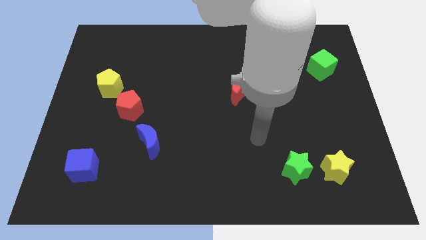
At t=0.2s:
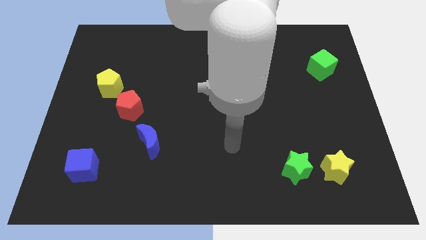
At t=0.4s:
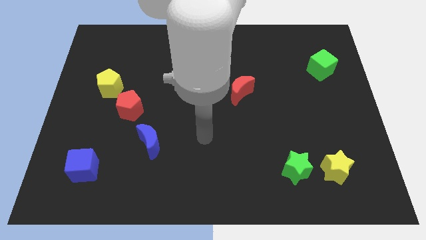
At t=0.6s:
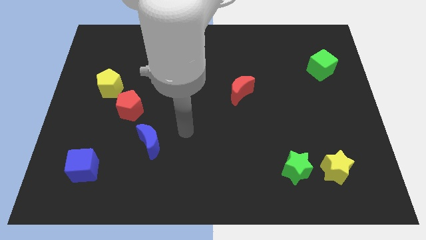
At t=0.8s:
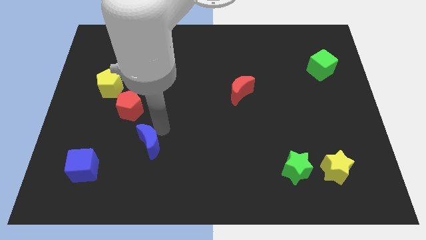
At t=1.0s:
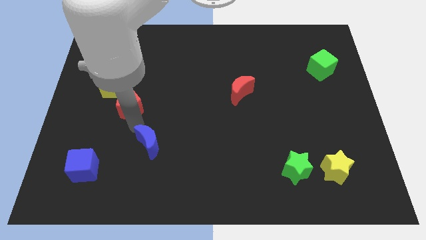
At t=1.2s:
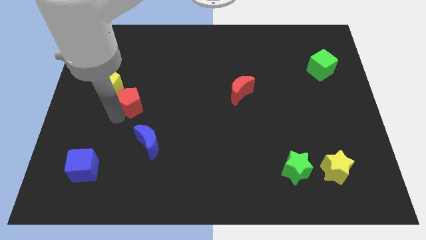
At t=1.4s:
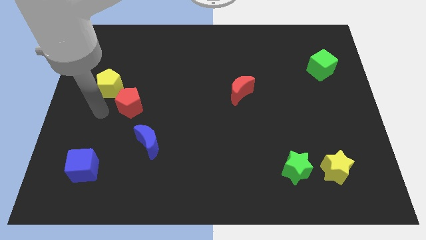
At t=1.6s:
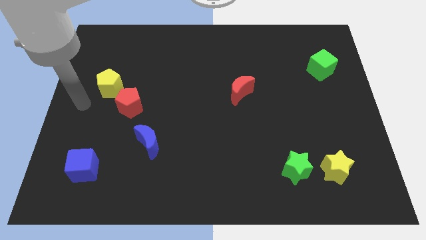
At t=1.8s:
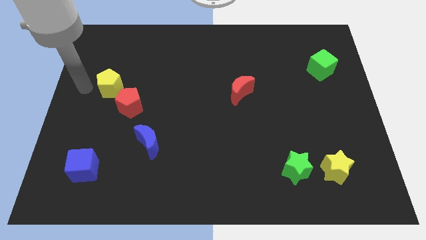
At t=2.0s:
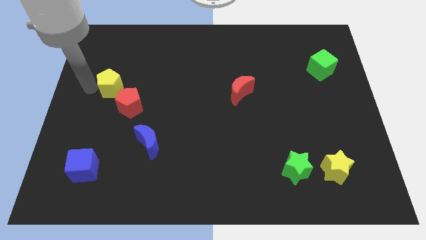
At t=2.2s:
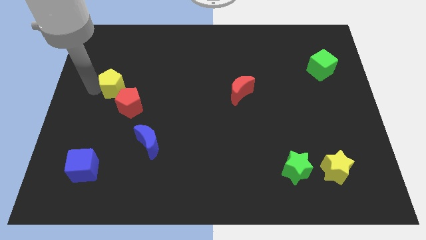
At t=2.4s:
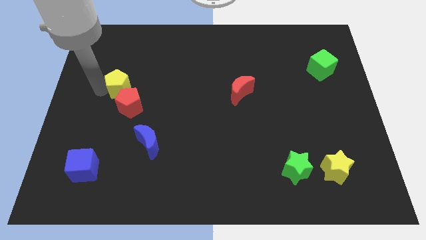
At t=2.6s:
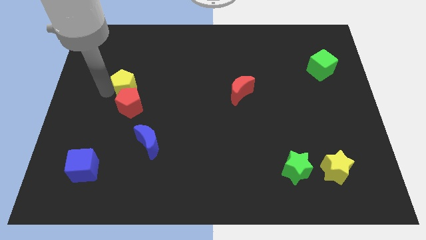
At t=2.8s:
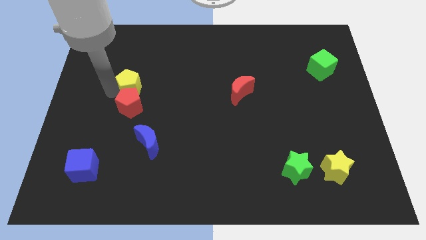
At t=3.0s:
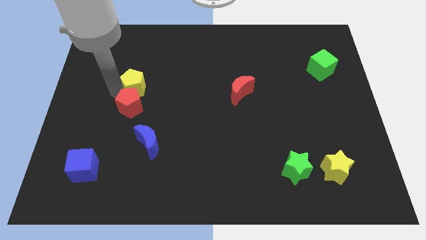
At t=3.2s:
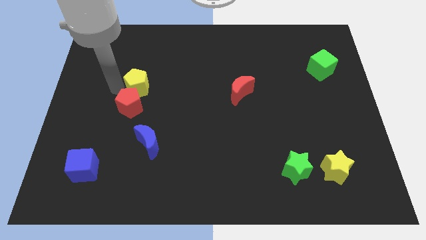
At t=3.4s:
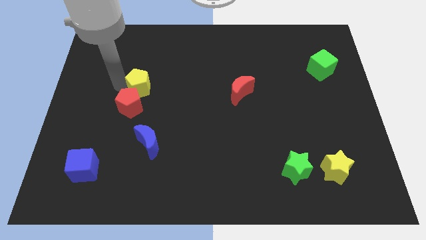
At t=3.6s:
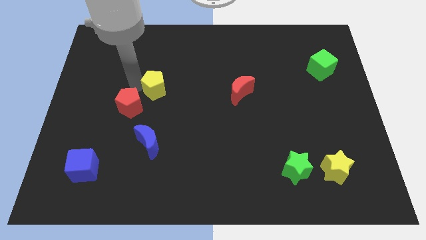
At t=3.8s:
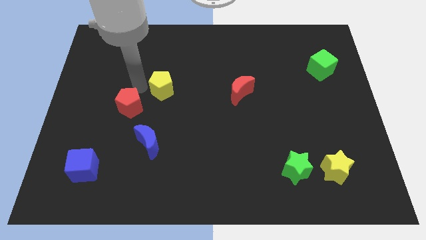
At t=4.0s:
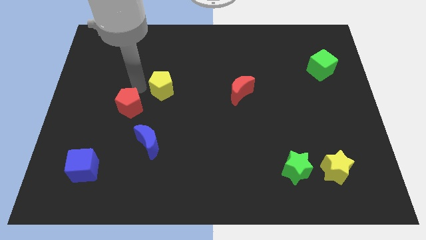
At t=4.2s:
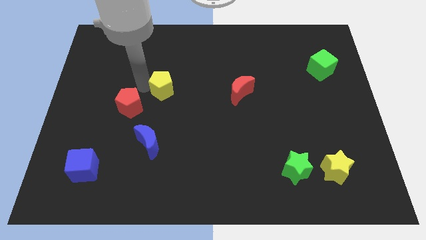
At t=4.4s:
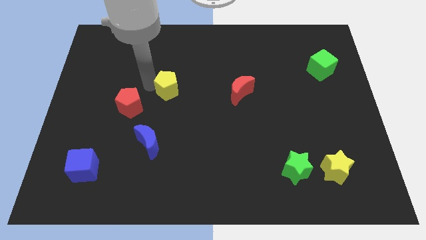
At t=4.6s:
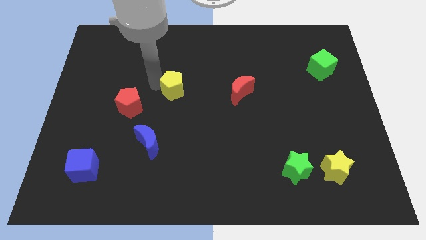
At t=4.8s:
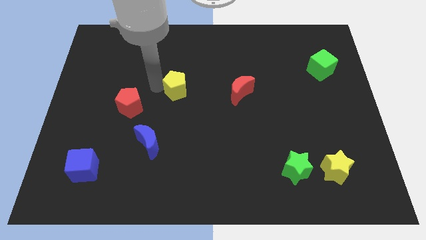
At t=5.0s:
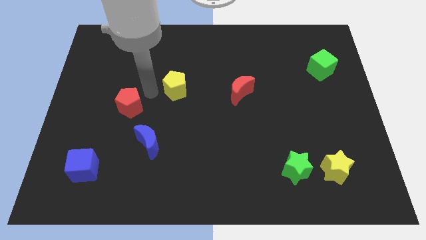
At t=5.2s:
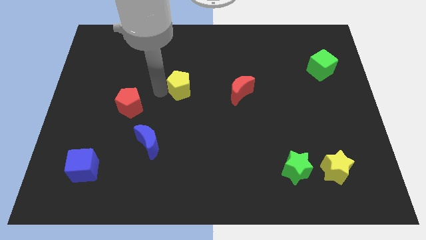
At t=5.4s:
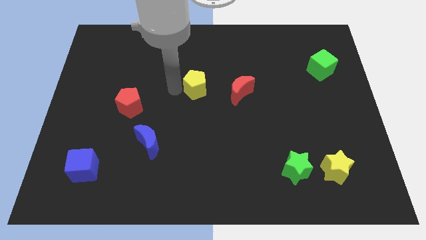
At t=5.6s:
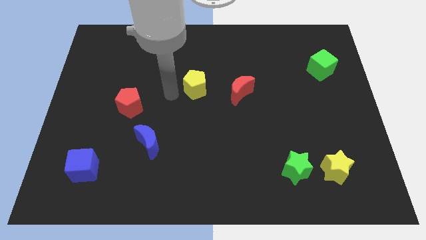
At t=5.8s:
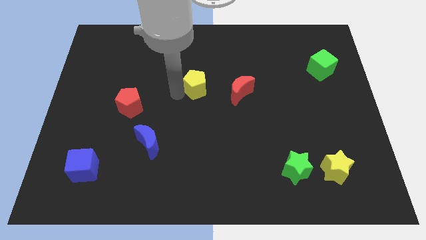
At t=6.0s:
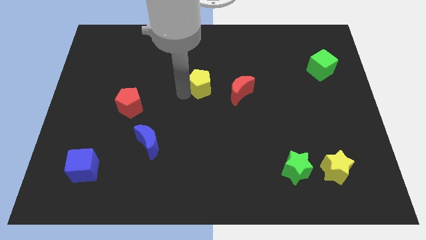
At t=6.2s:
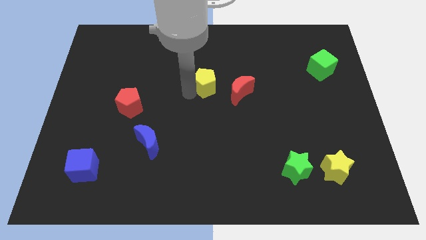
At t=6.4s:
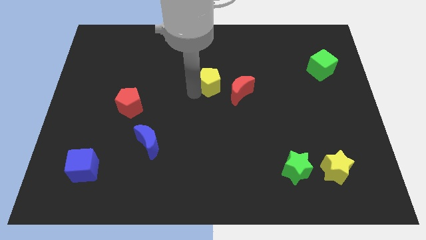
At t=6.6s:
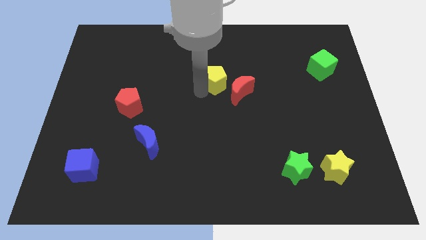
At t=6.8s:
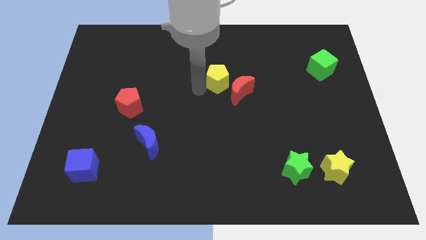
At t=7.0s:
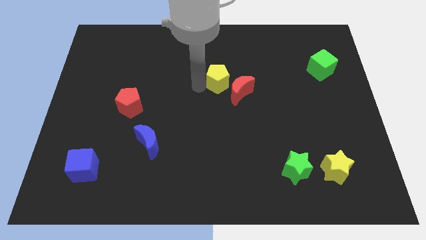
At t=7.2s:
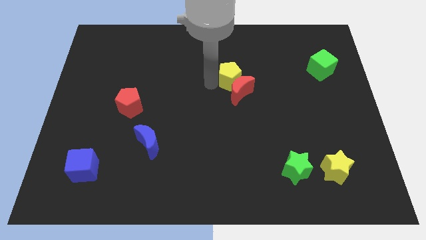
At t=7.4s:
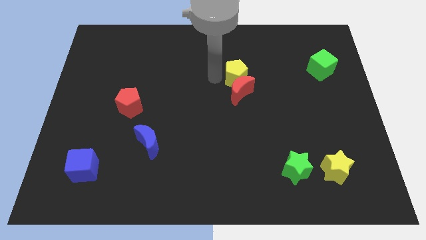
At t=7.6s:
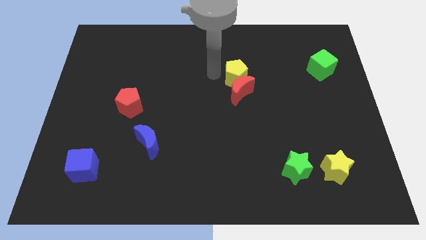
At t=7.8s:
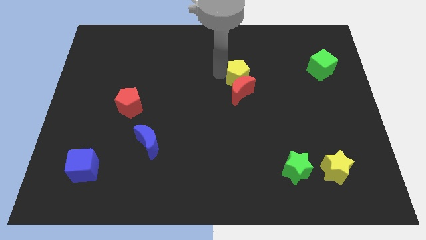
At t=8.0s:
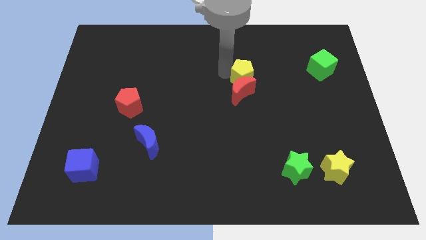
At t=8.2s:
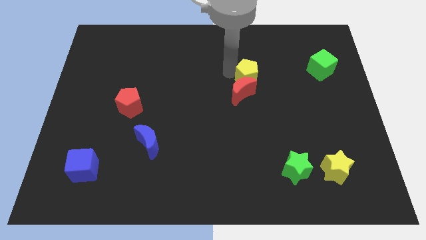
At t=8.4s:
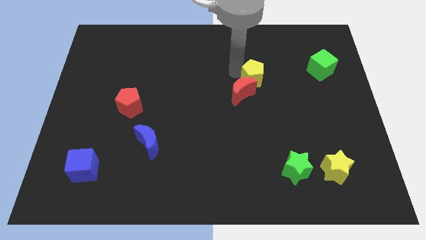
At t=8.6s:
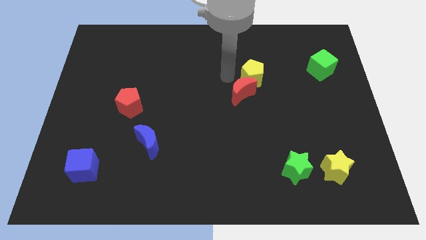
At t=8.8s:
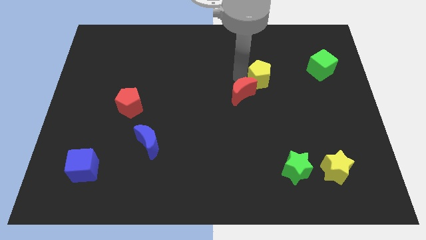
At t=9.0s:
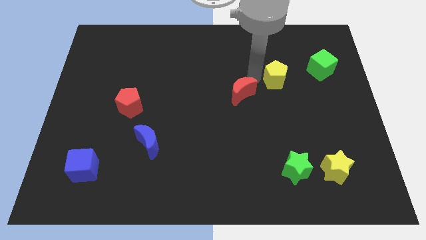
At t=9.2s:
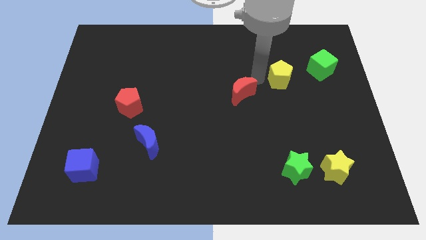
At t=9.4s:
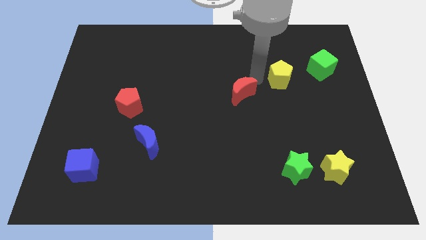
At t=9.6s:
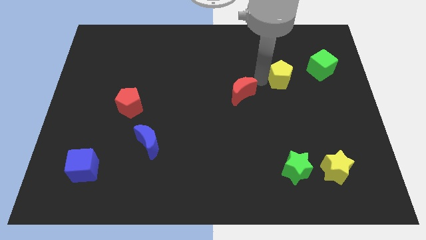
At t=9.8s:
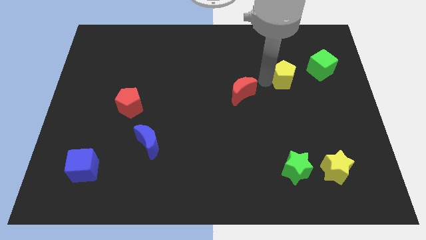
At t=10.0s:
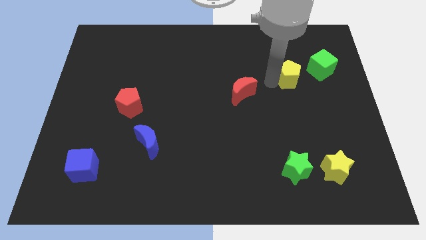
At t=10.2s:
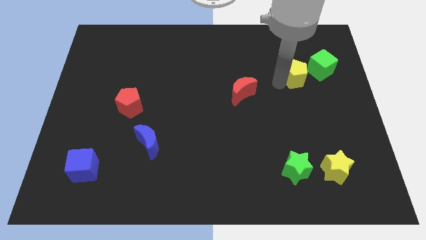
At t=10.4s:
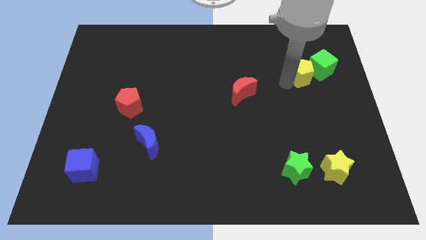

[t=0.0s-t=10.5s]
push the yellow pentagon next to the green cube

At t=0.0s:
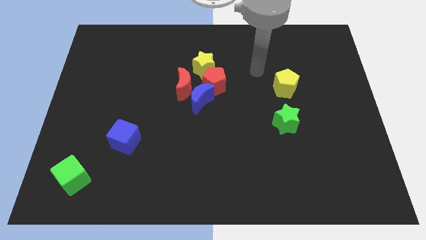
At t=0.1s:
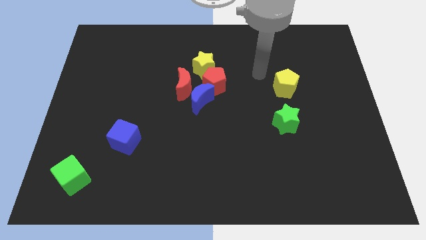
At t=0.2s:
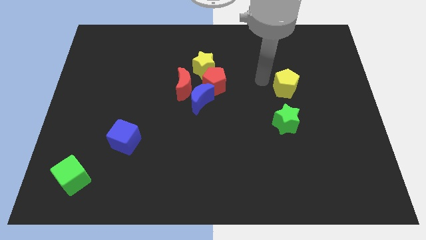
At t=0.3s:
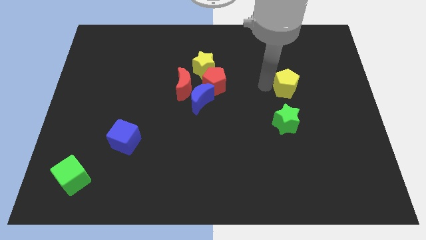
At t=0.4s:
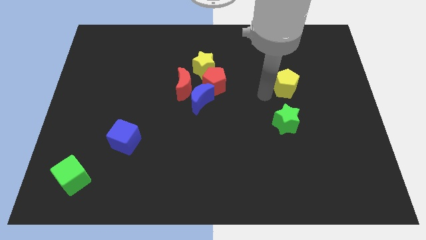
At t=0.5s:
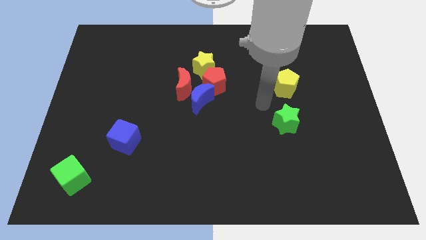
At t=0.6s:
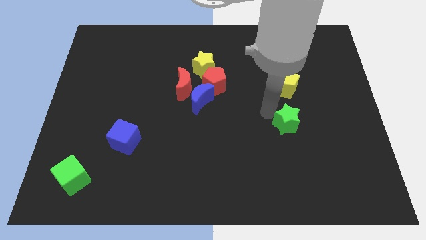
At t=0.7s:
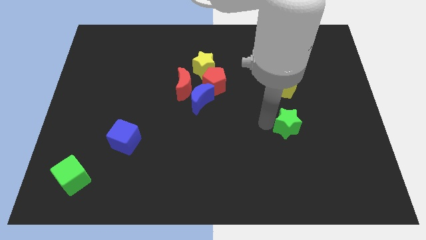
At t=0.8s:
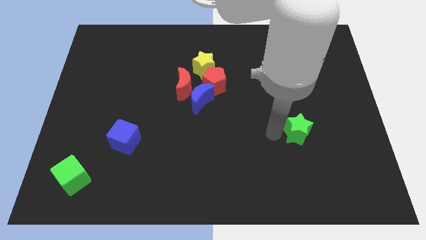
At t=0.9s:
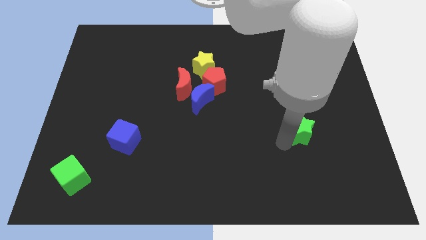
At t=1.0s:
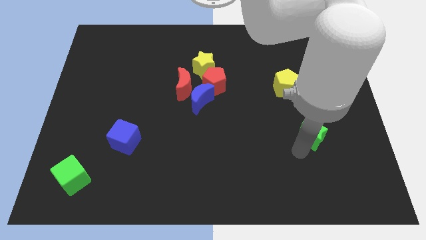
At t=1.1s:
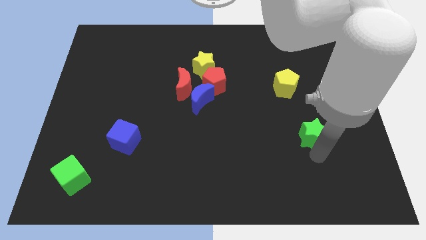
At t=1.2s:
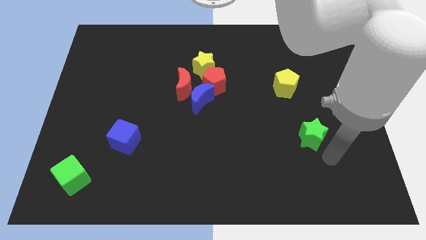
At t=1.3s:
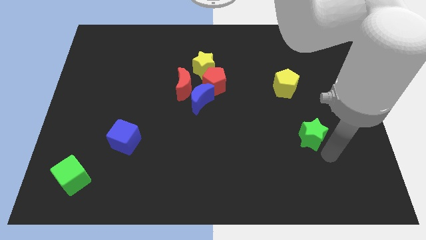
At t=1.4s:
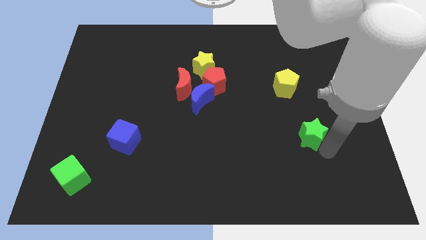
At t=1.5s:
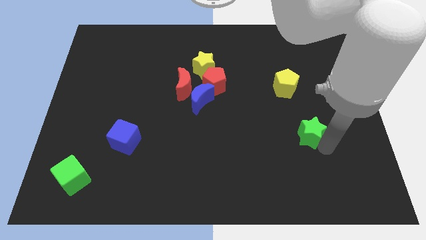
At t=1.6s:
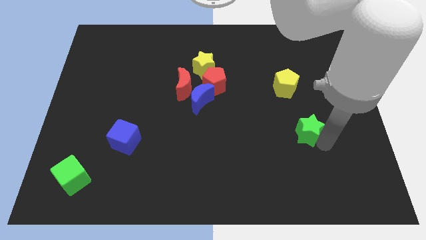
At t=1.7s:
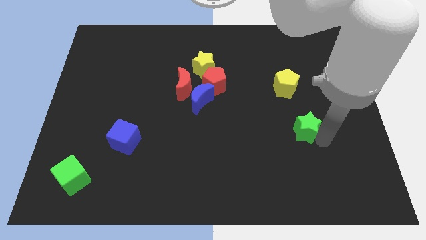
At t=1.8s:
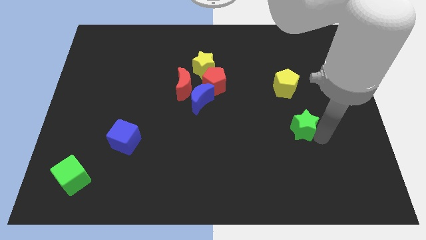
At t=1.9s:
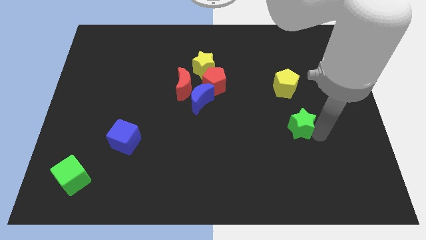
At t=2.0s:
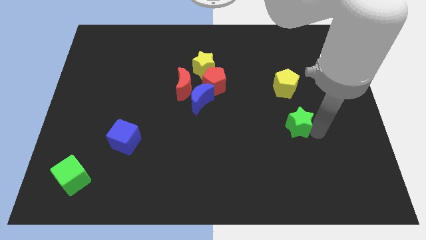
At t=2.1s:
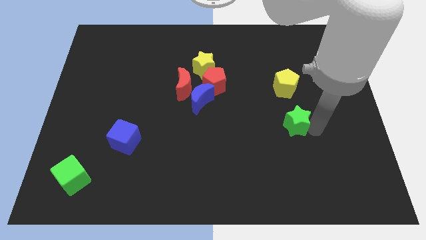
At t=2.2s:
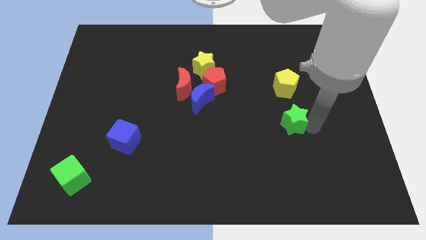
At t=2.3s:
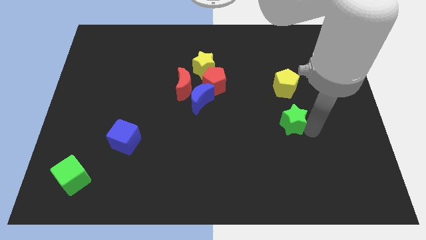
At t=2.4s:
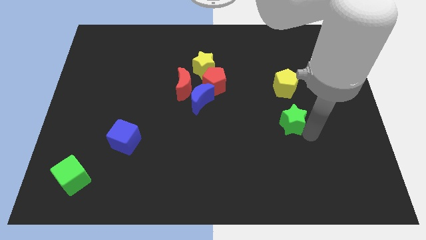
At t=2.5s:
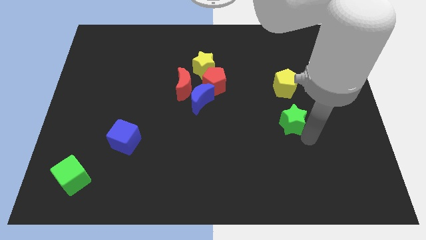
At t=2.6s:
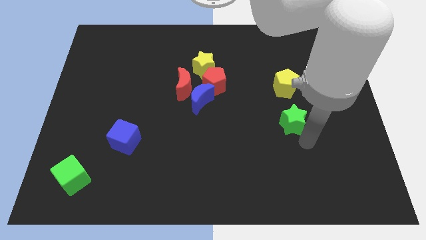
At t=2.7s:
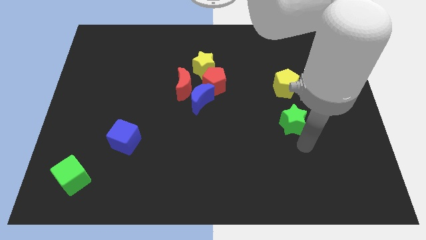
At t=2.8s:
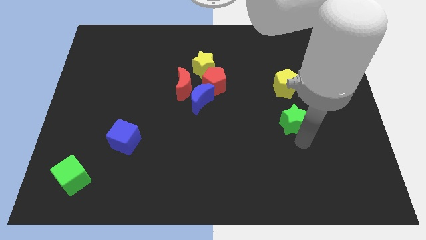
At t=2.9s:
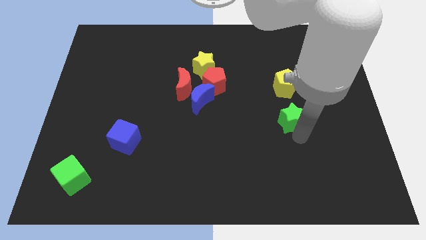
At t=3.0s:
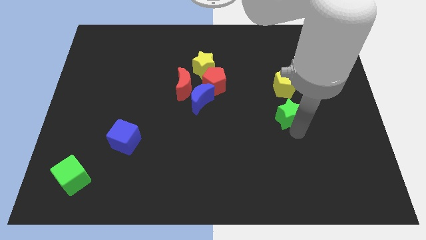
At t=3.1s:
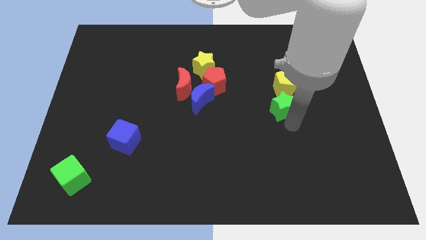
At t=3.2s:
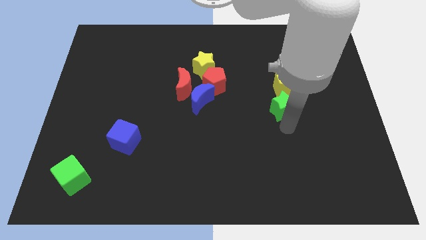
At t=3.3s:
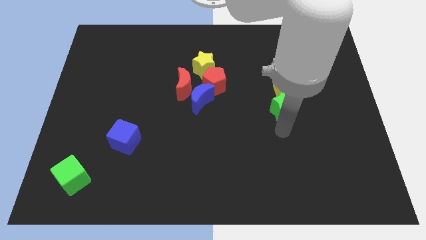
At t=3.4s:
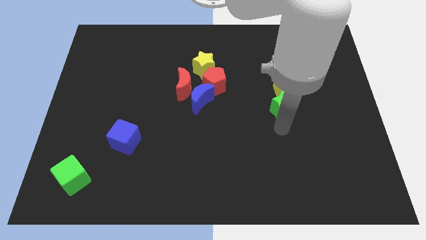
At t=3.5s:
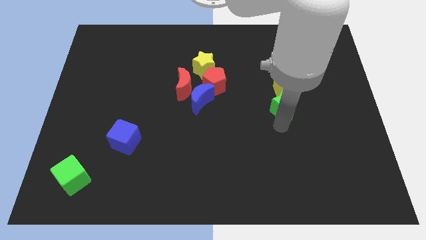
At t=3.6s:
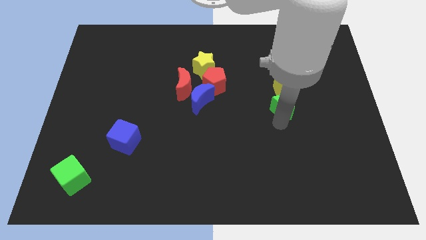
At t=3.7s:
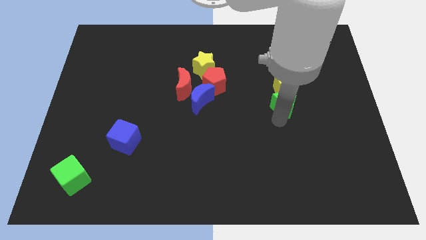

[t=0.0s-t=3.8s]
put the green star towards the yellow pentagon
